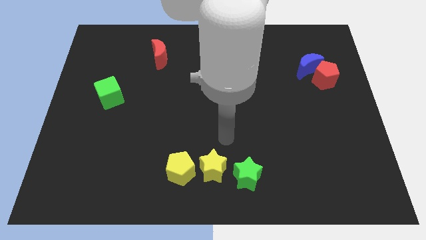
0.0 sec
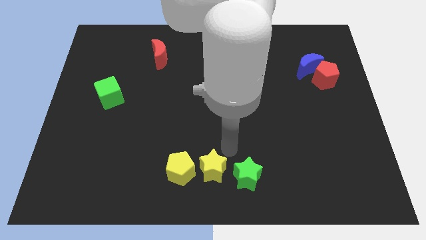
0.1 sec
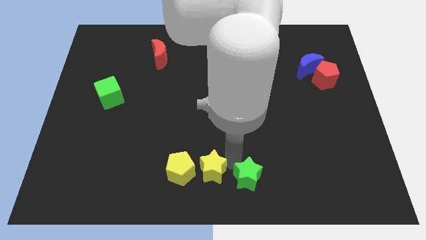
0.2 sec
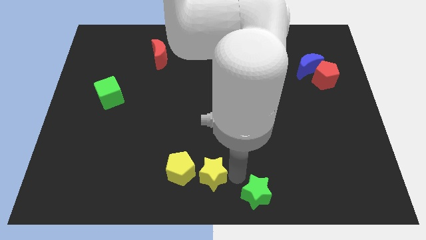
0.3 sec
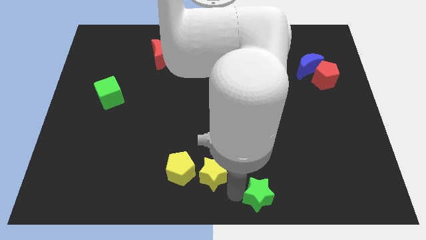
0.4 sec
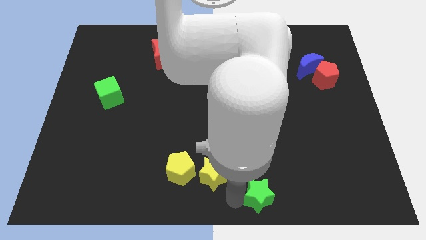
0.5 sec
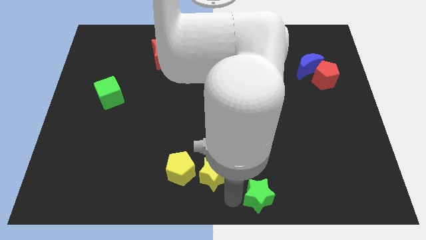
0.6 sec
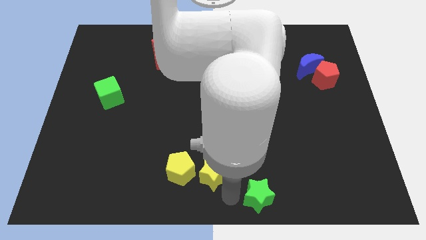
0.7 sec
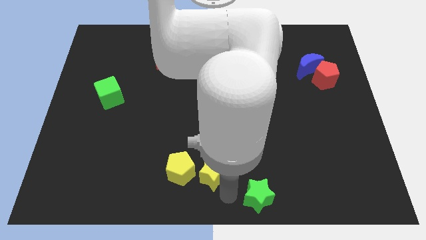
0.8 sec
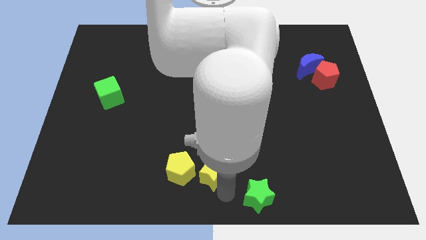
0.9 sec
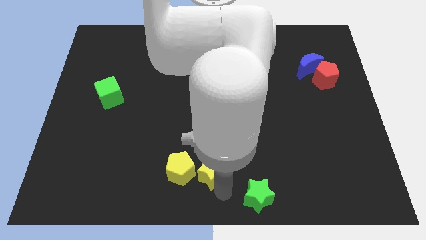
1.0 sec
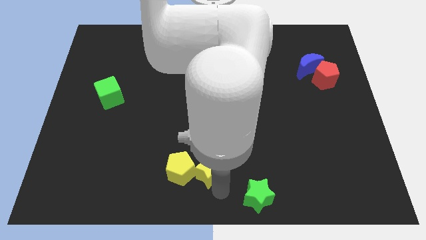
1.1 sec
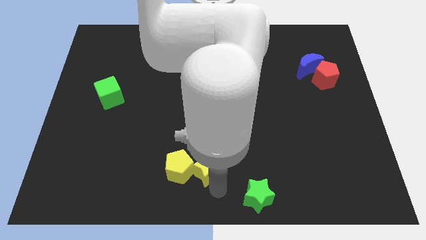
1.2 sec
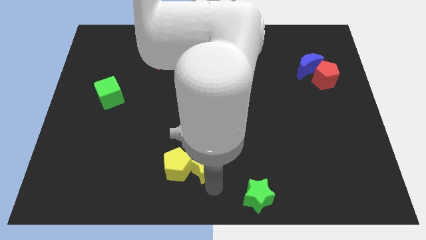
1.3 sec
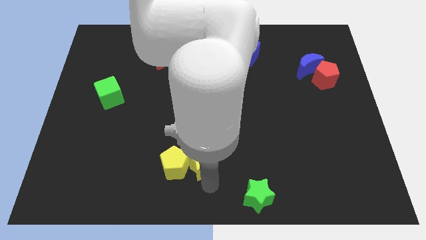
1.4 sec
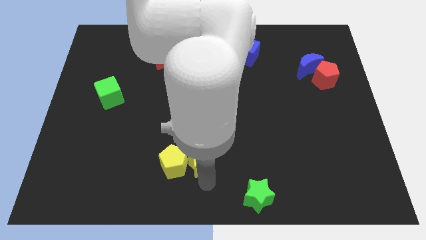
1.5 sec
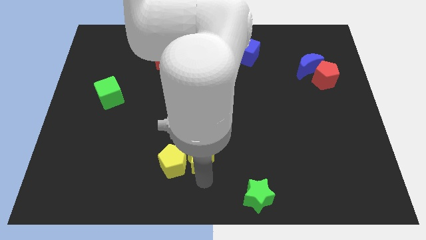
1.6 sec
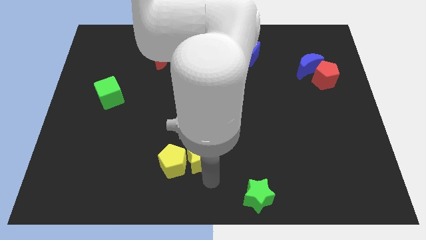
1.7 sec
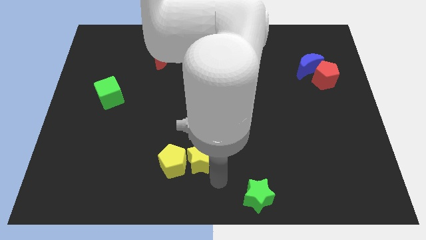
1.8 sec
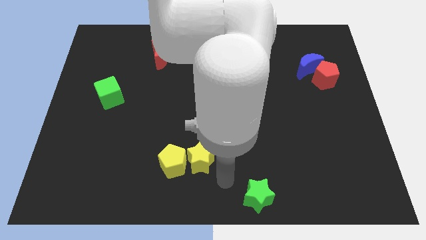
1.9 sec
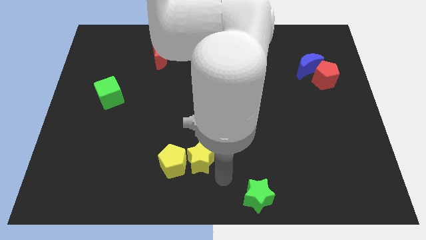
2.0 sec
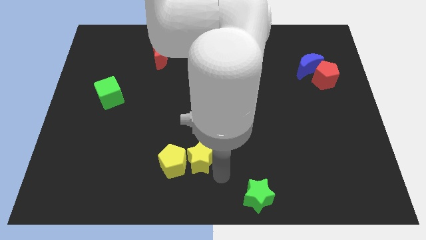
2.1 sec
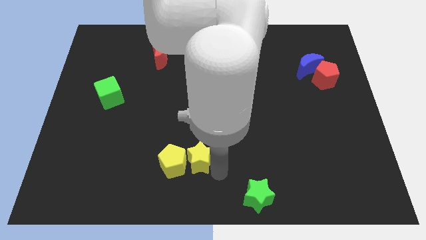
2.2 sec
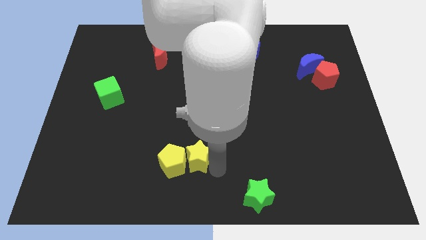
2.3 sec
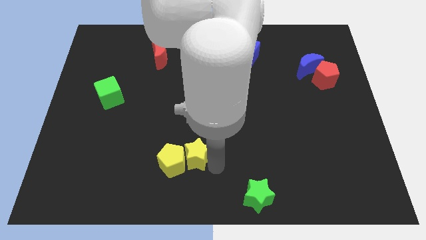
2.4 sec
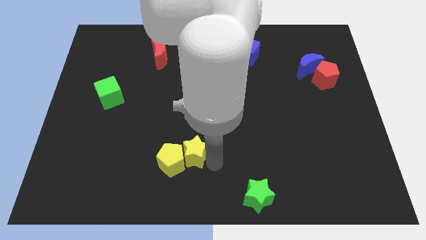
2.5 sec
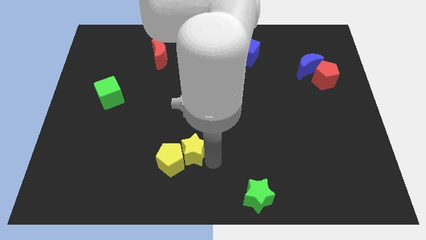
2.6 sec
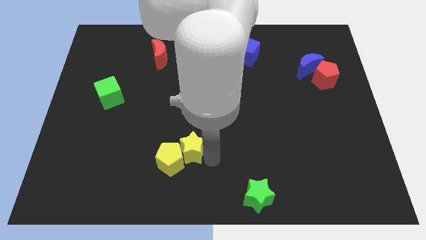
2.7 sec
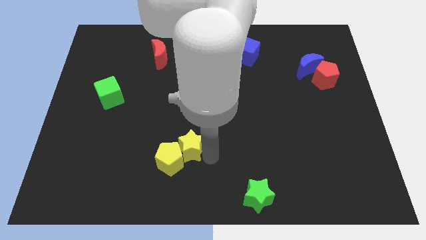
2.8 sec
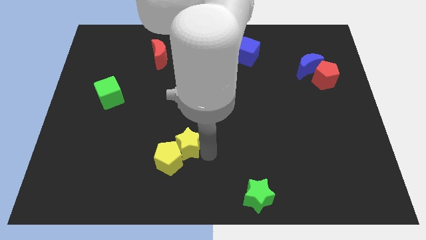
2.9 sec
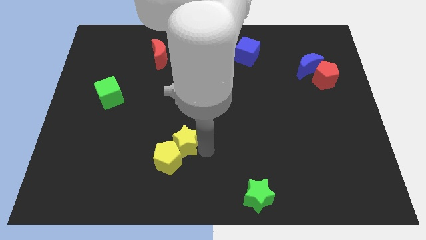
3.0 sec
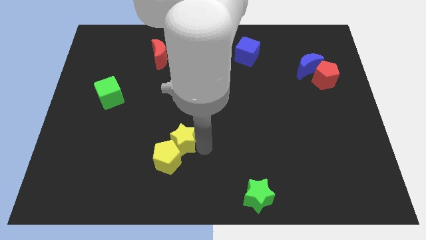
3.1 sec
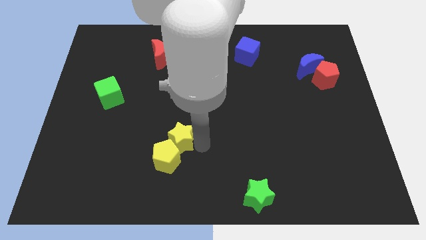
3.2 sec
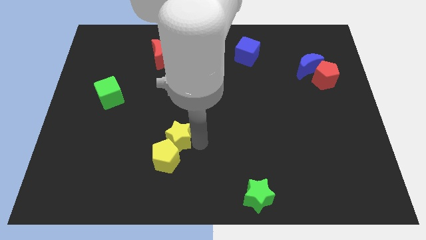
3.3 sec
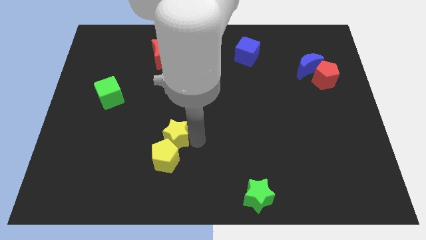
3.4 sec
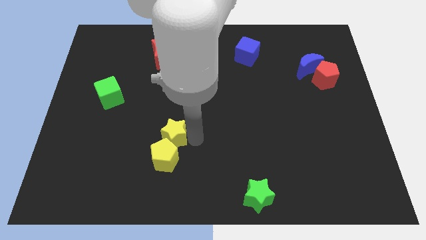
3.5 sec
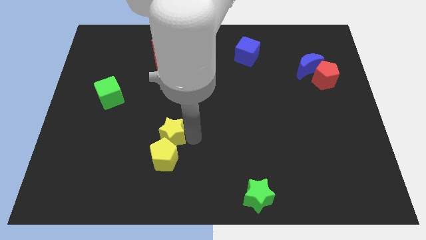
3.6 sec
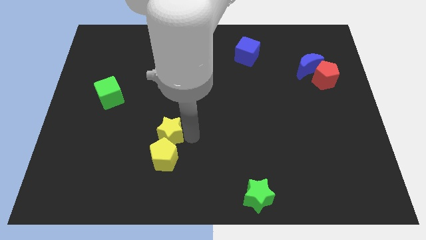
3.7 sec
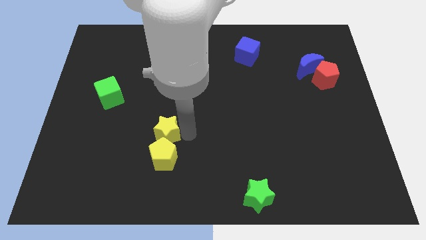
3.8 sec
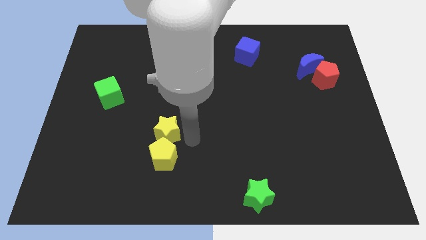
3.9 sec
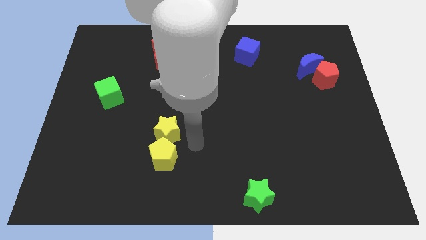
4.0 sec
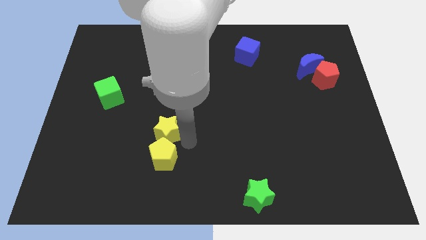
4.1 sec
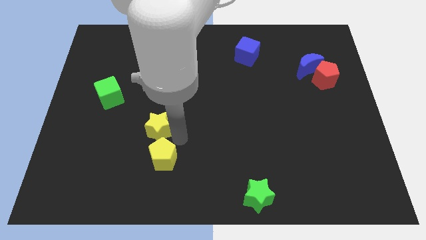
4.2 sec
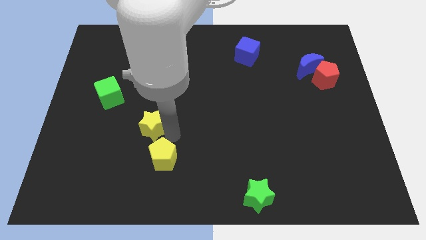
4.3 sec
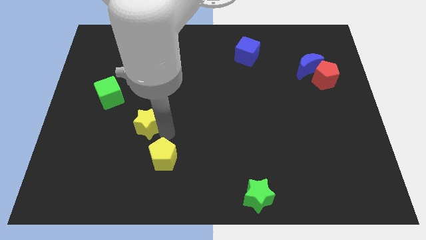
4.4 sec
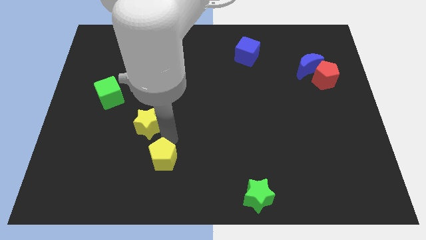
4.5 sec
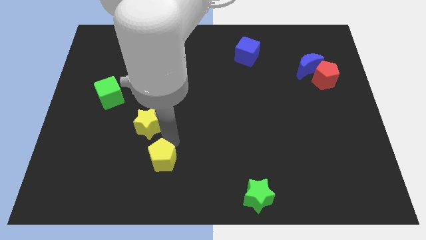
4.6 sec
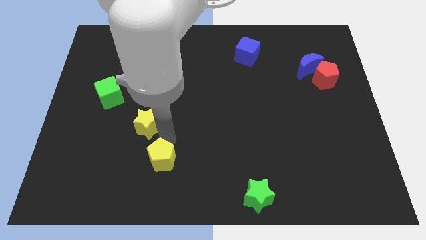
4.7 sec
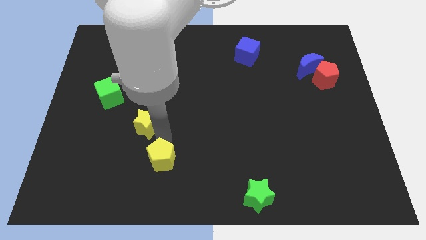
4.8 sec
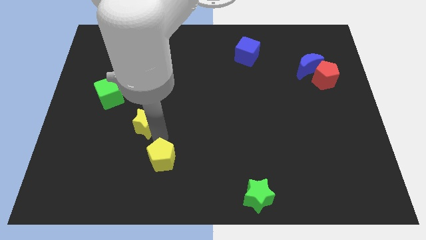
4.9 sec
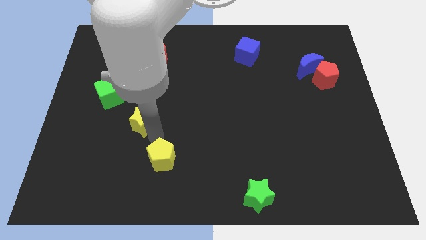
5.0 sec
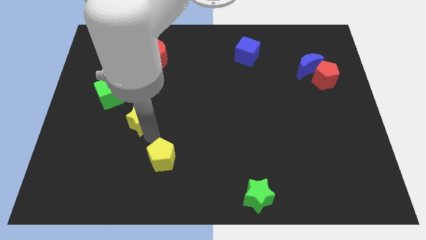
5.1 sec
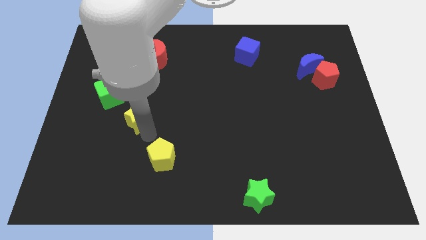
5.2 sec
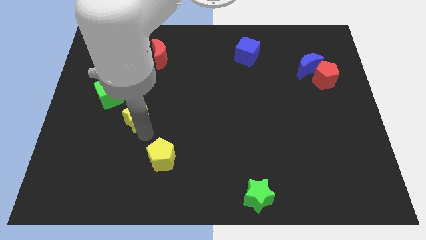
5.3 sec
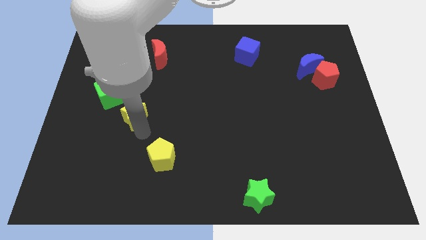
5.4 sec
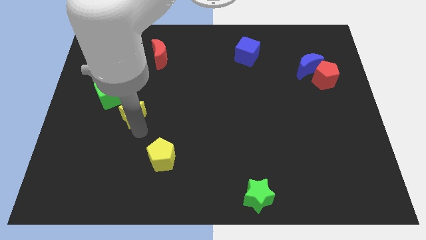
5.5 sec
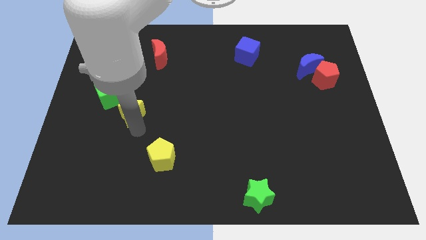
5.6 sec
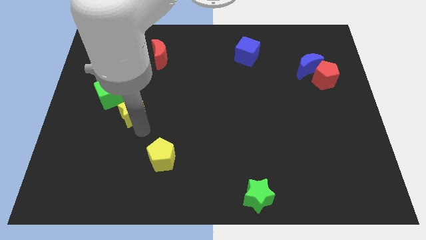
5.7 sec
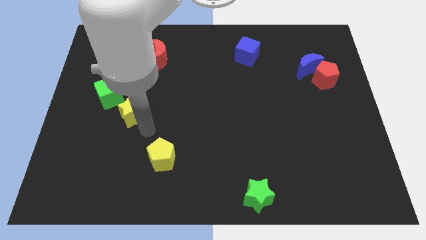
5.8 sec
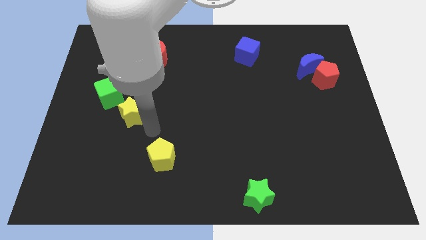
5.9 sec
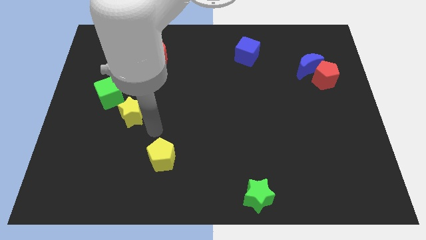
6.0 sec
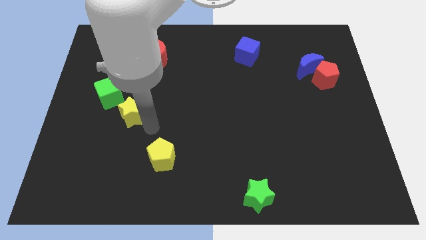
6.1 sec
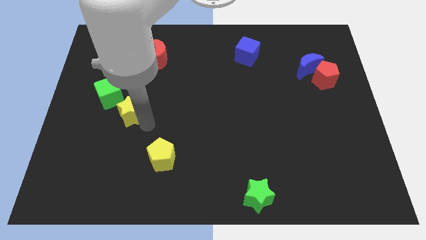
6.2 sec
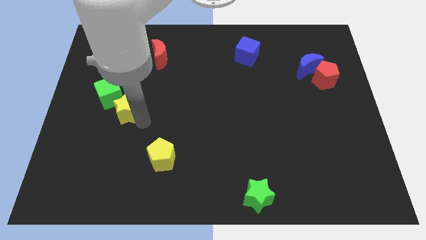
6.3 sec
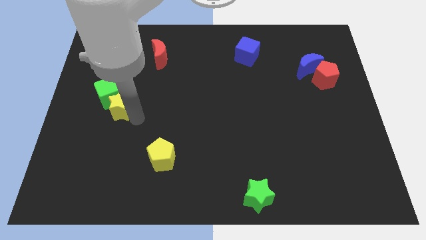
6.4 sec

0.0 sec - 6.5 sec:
move the yellow star next to the green cube

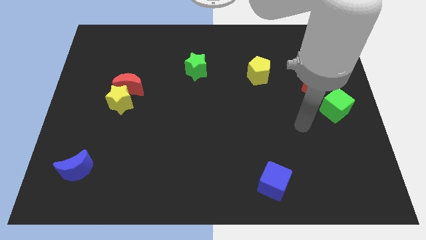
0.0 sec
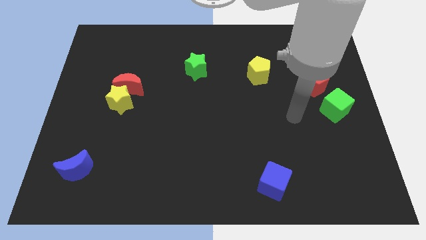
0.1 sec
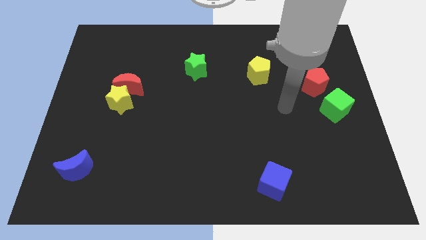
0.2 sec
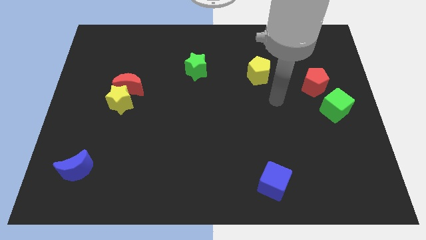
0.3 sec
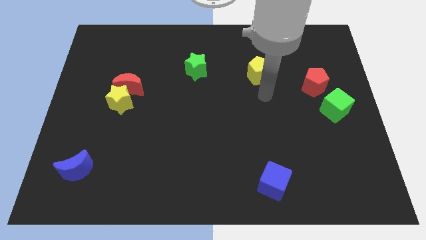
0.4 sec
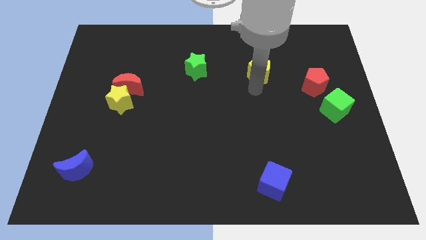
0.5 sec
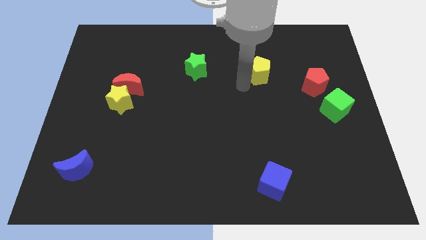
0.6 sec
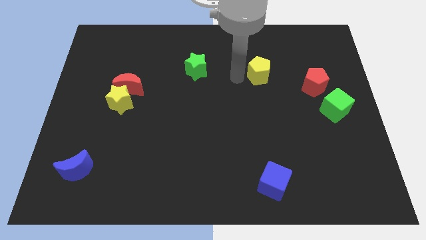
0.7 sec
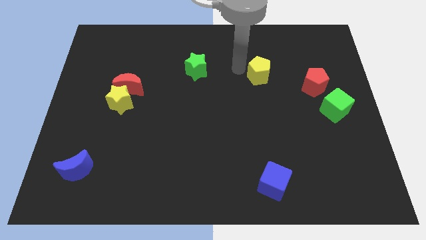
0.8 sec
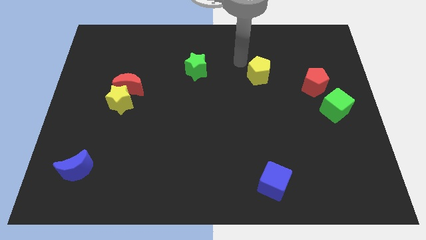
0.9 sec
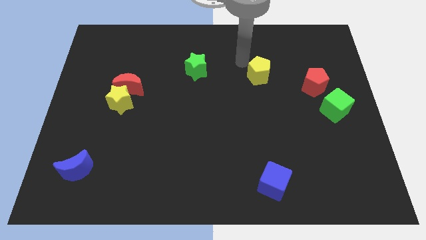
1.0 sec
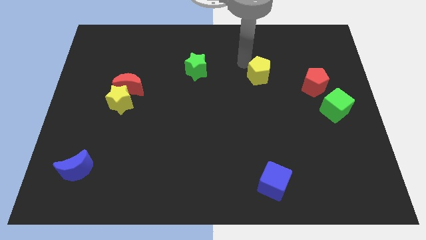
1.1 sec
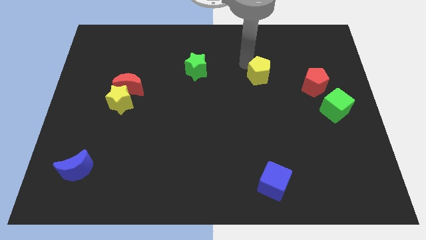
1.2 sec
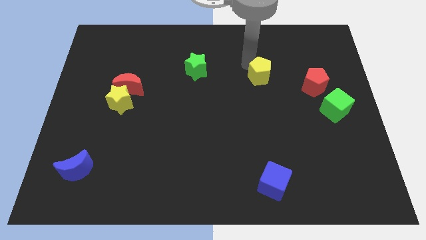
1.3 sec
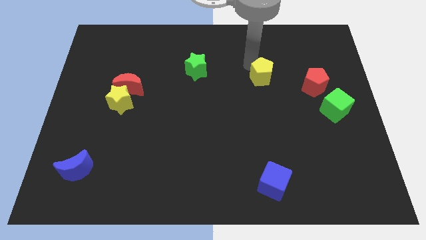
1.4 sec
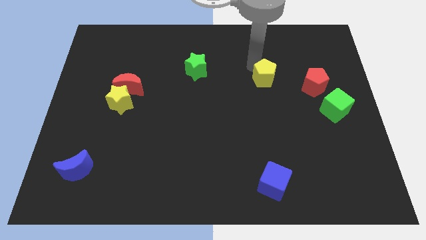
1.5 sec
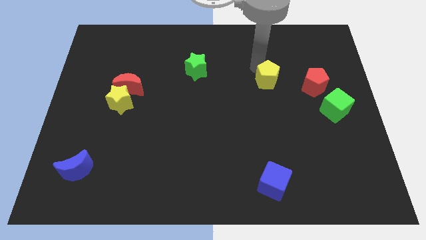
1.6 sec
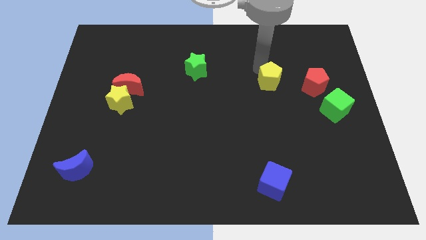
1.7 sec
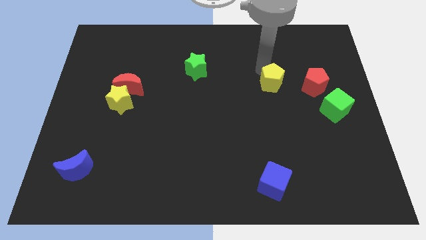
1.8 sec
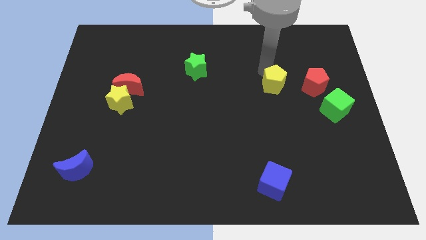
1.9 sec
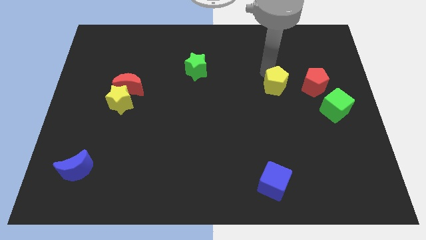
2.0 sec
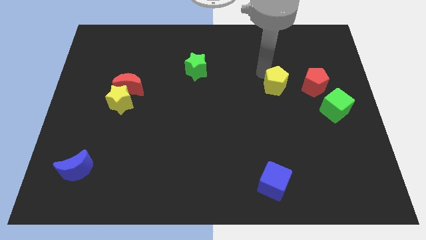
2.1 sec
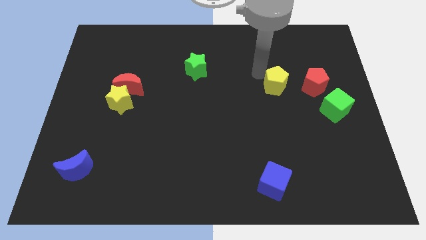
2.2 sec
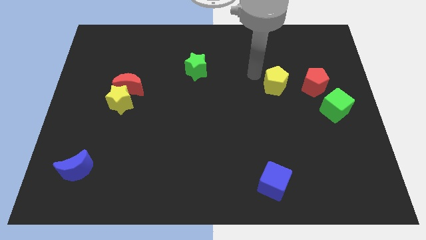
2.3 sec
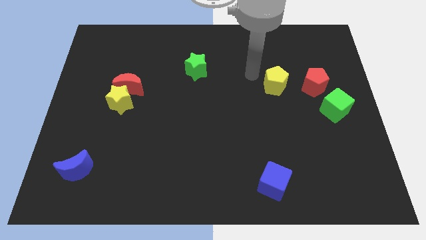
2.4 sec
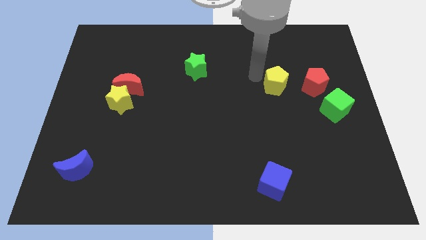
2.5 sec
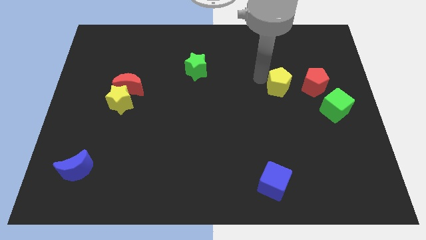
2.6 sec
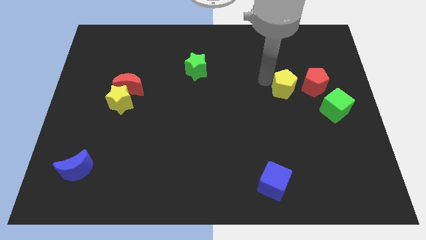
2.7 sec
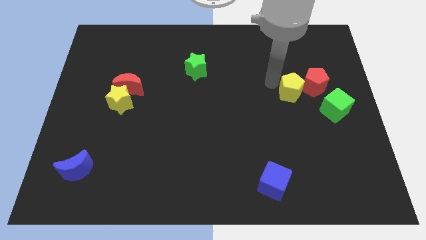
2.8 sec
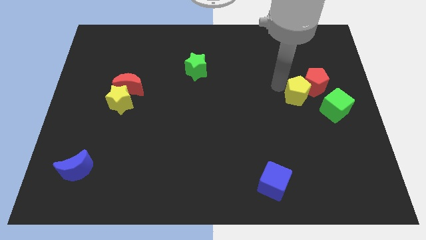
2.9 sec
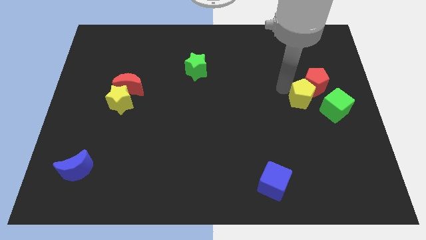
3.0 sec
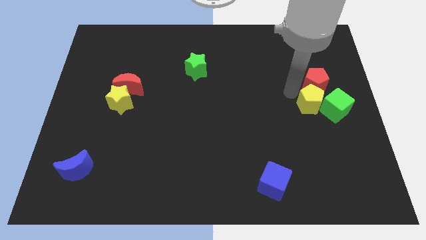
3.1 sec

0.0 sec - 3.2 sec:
push the yellow pentagon to the green cube
